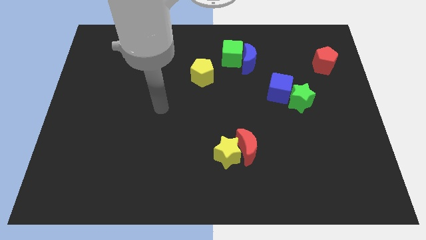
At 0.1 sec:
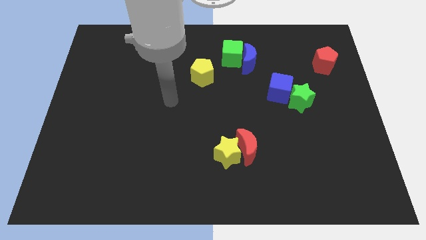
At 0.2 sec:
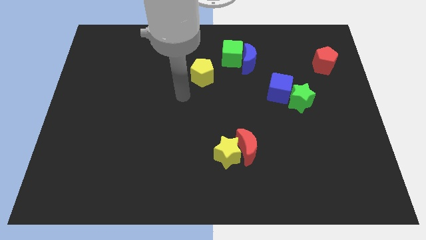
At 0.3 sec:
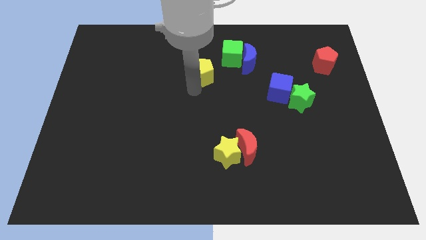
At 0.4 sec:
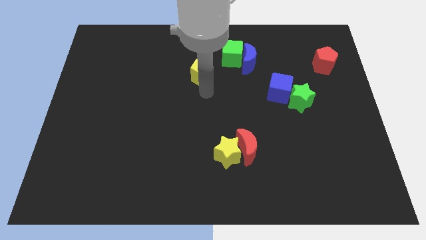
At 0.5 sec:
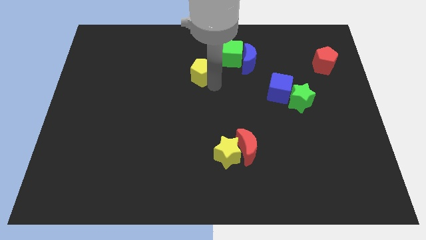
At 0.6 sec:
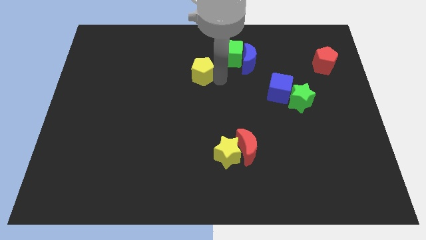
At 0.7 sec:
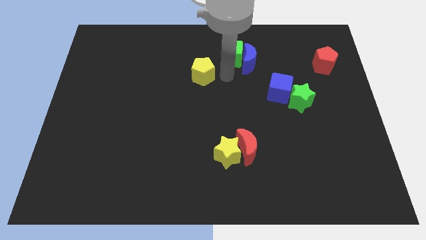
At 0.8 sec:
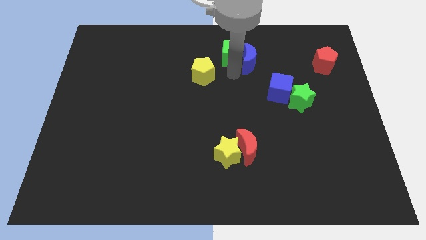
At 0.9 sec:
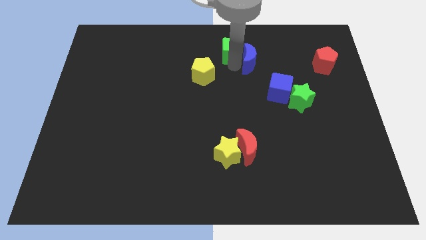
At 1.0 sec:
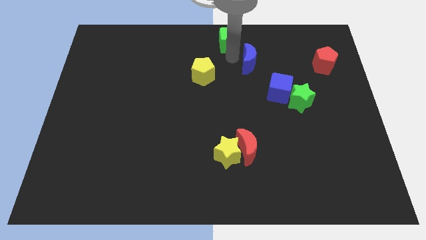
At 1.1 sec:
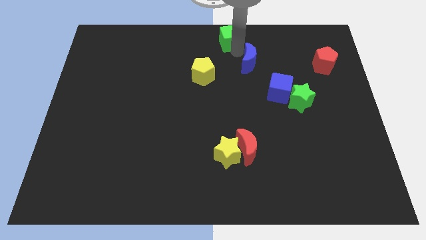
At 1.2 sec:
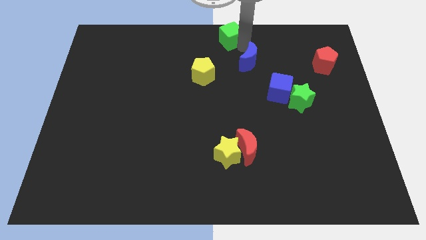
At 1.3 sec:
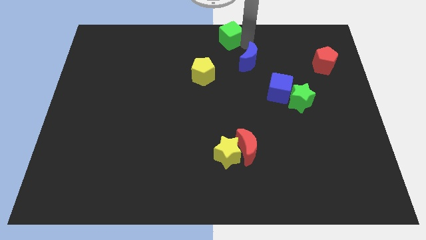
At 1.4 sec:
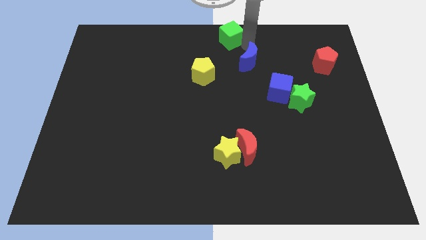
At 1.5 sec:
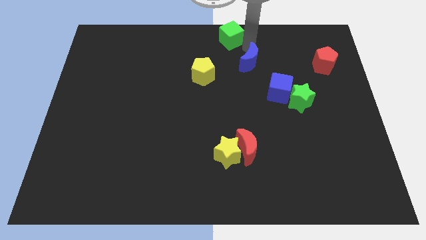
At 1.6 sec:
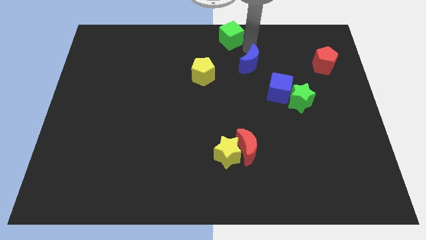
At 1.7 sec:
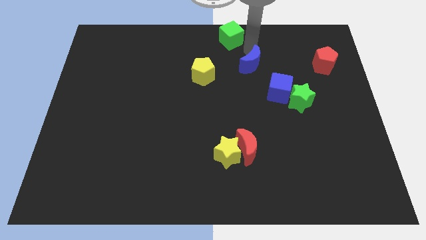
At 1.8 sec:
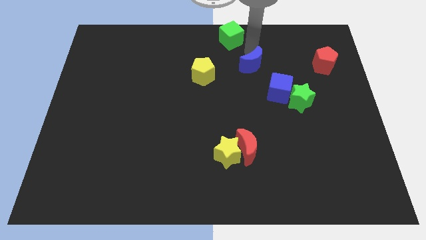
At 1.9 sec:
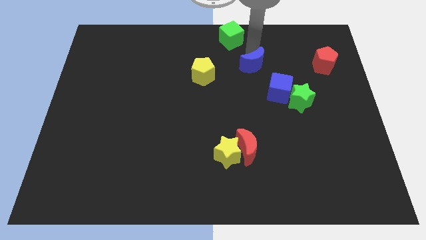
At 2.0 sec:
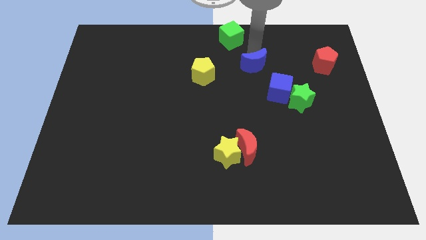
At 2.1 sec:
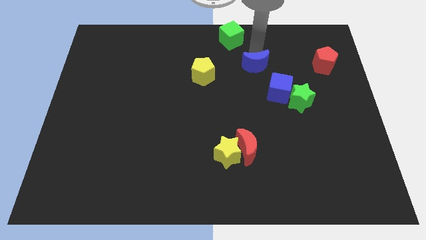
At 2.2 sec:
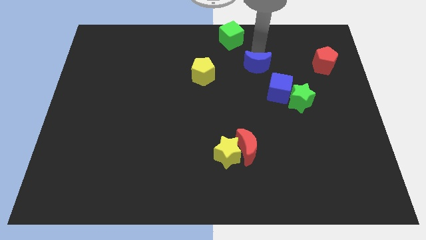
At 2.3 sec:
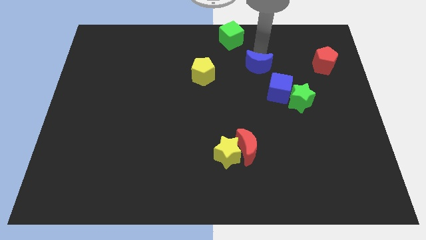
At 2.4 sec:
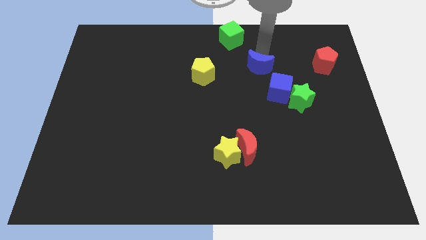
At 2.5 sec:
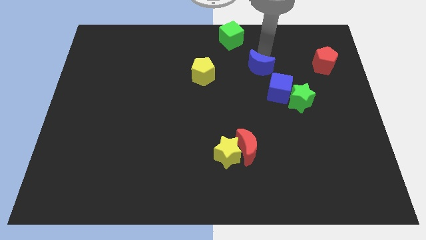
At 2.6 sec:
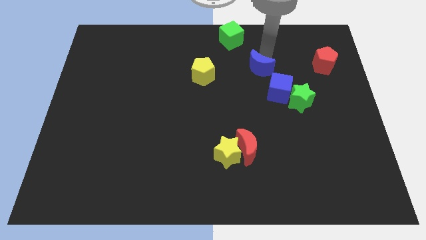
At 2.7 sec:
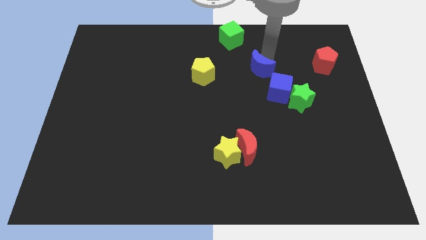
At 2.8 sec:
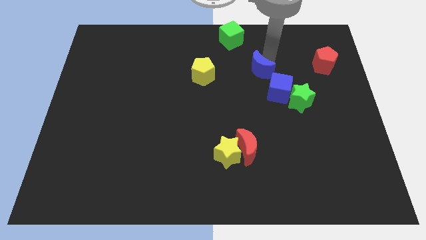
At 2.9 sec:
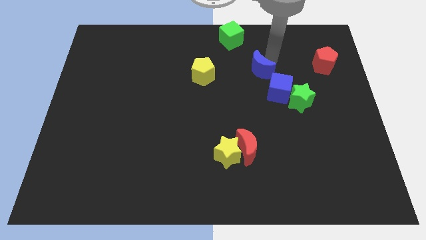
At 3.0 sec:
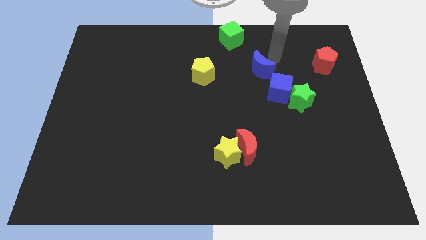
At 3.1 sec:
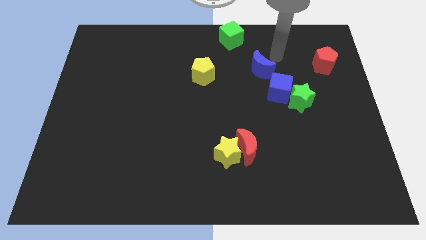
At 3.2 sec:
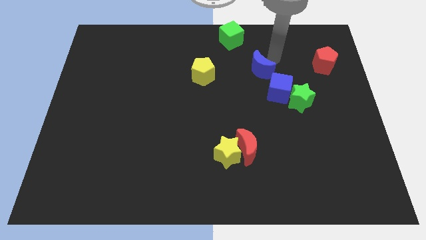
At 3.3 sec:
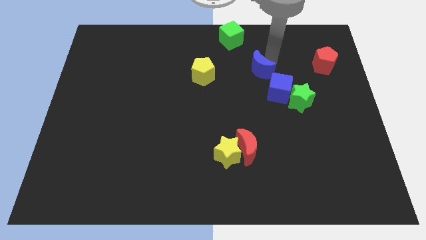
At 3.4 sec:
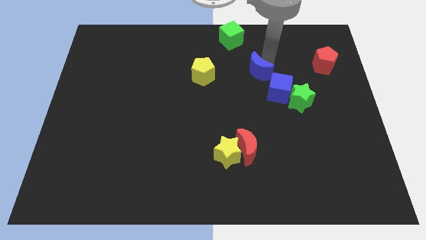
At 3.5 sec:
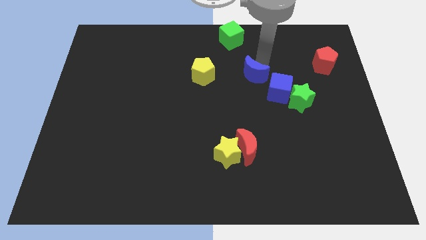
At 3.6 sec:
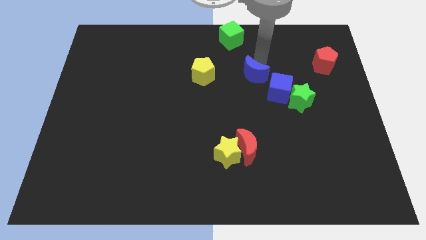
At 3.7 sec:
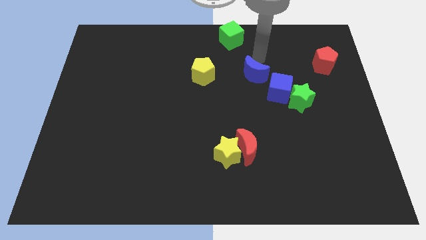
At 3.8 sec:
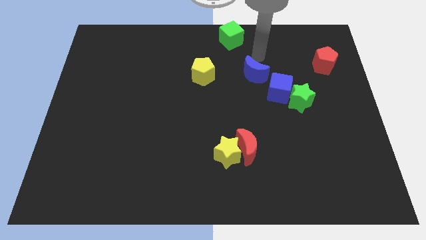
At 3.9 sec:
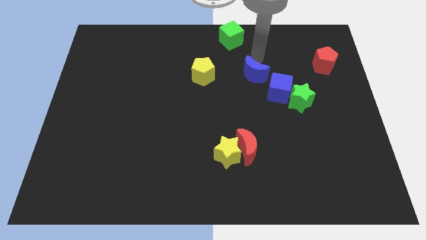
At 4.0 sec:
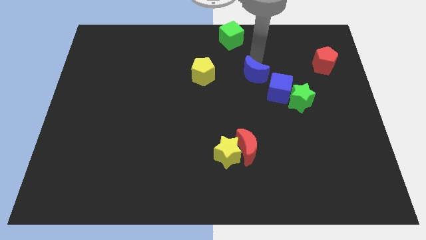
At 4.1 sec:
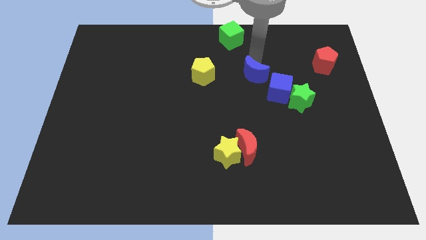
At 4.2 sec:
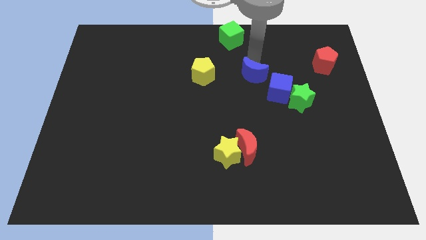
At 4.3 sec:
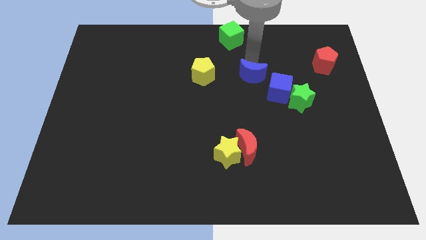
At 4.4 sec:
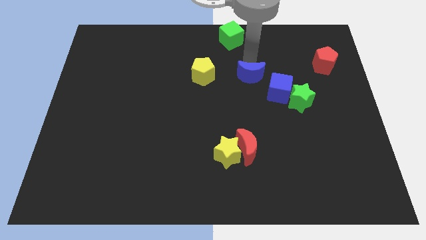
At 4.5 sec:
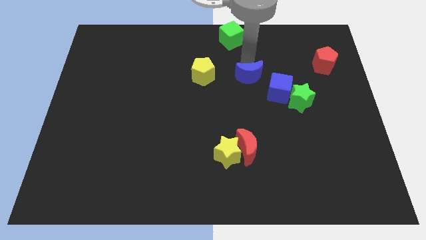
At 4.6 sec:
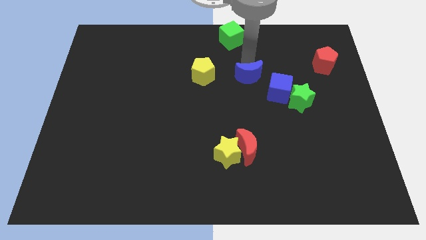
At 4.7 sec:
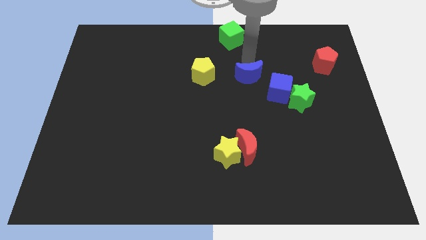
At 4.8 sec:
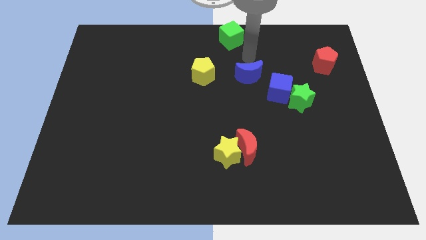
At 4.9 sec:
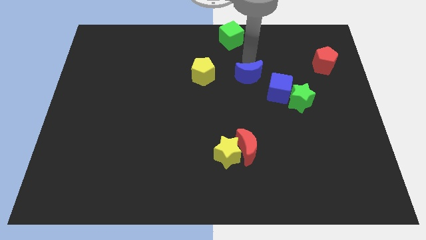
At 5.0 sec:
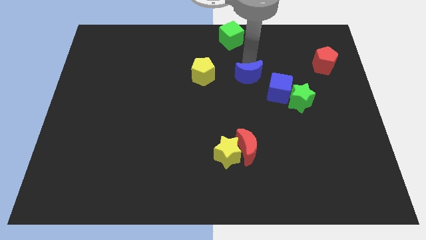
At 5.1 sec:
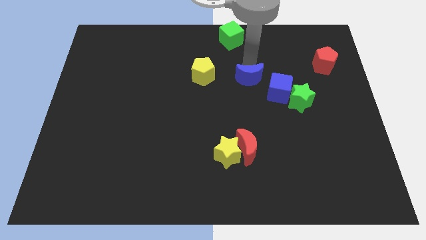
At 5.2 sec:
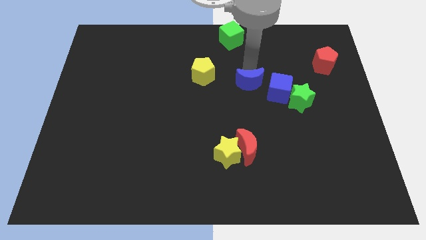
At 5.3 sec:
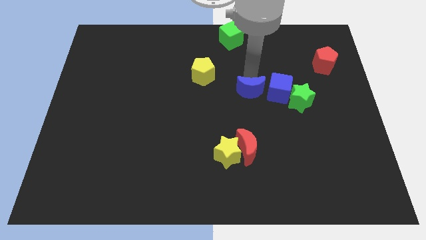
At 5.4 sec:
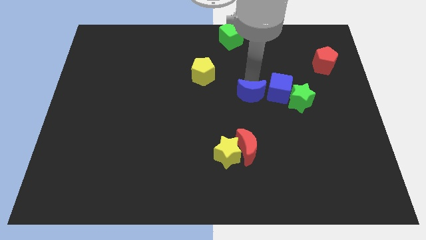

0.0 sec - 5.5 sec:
push the blue moon to the top side of the red moon
